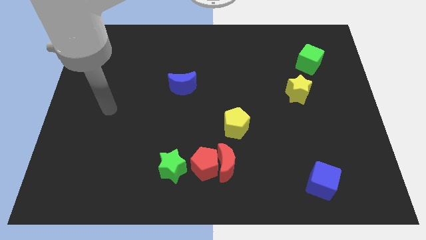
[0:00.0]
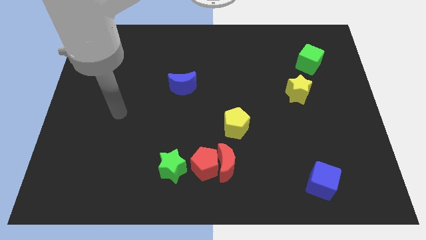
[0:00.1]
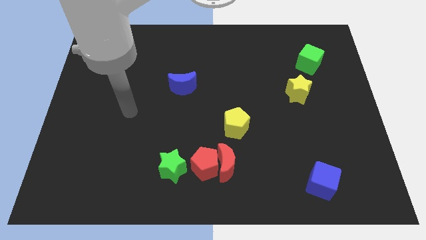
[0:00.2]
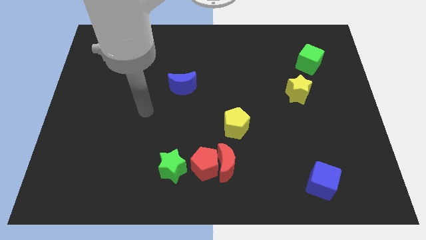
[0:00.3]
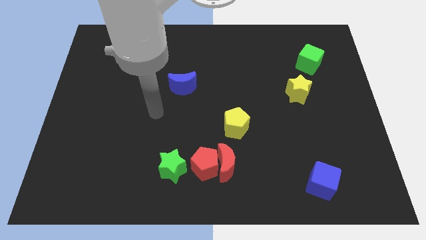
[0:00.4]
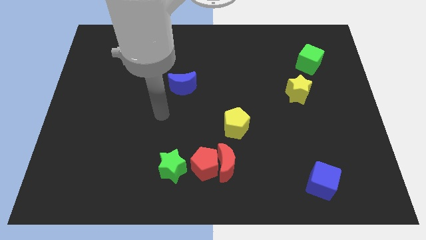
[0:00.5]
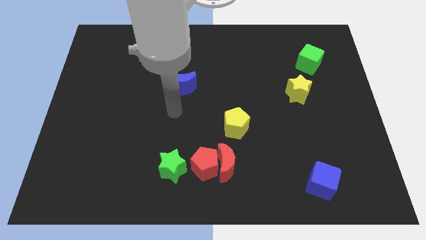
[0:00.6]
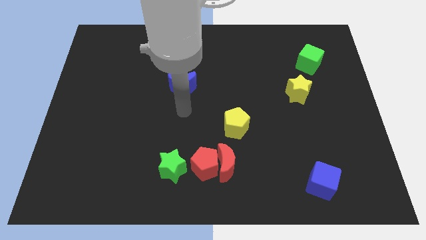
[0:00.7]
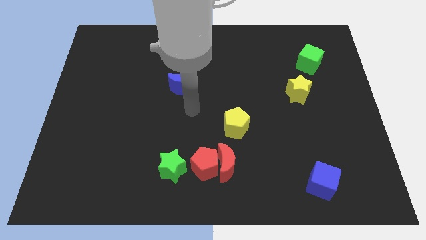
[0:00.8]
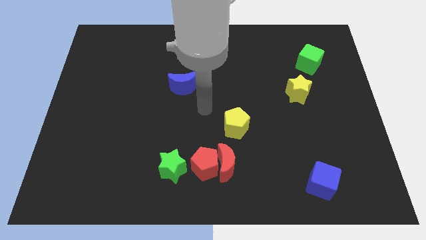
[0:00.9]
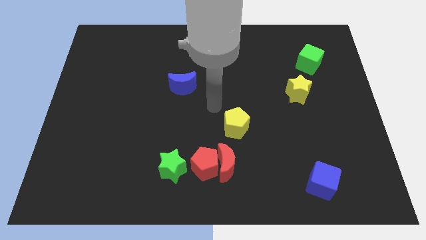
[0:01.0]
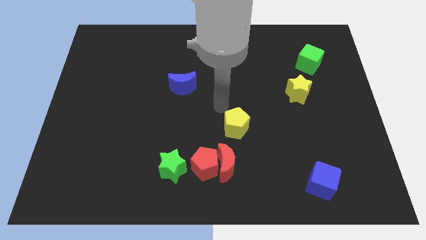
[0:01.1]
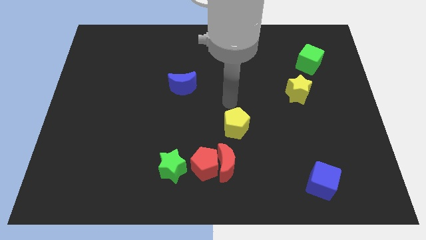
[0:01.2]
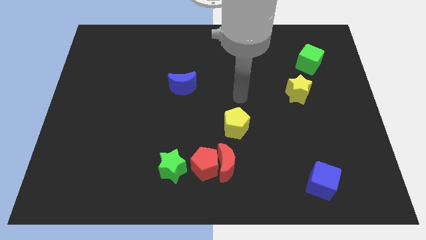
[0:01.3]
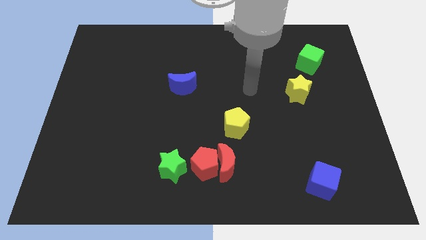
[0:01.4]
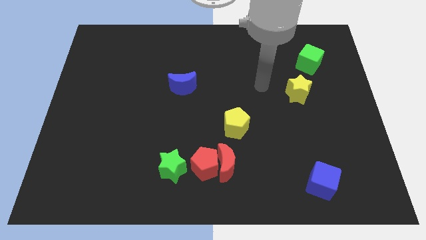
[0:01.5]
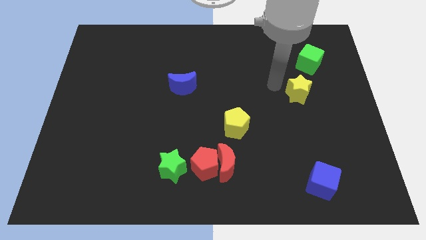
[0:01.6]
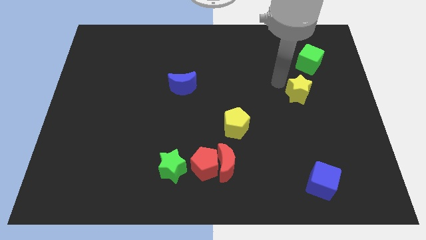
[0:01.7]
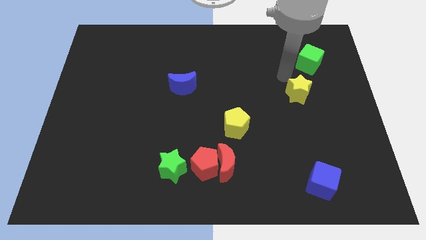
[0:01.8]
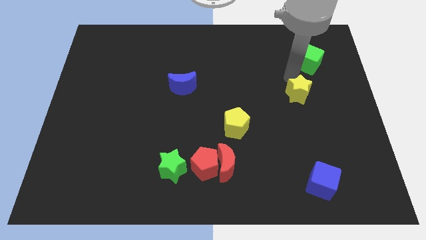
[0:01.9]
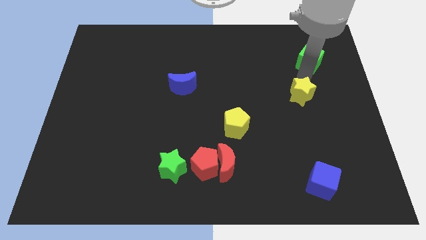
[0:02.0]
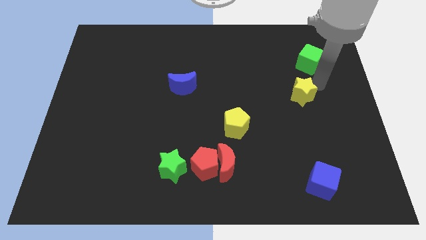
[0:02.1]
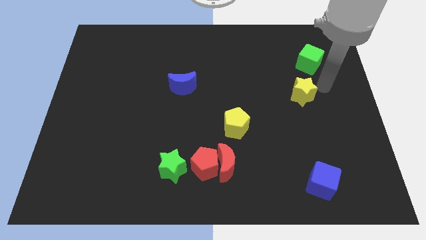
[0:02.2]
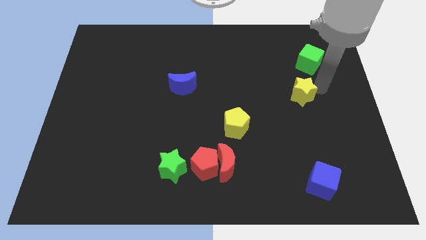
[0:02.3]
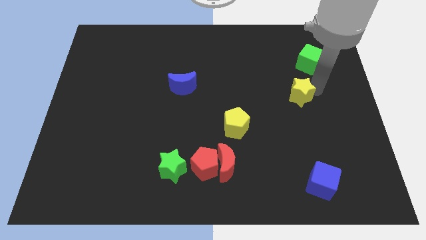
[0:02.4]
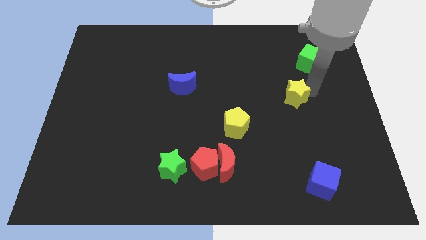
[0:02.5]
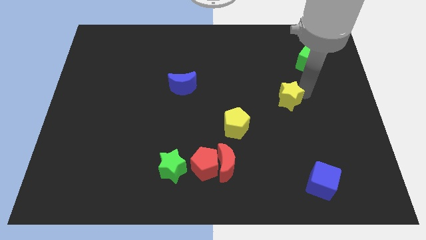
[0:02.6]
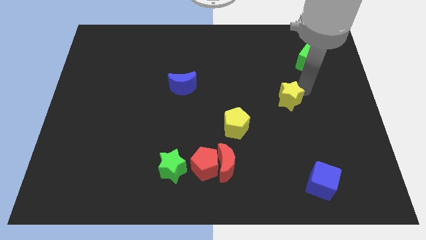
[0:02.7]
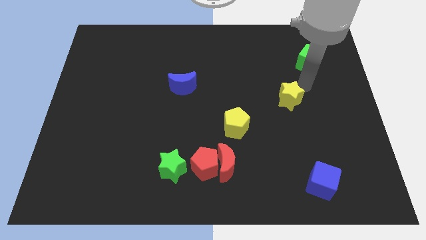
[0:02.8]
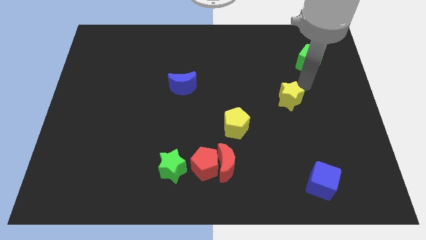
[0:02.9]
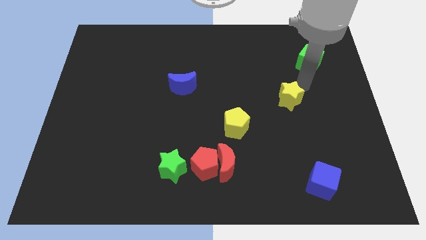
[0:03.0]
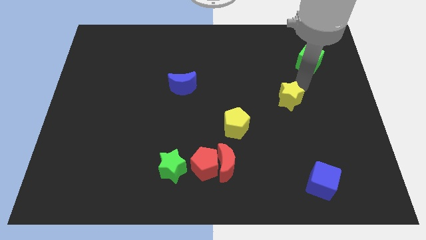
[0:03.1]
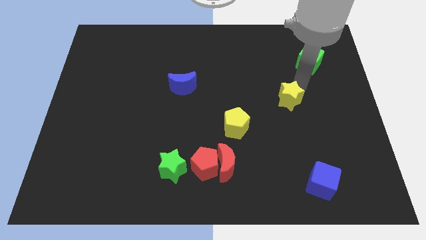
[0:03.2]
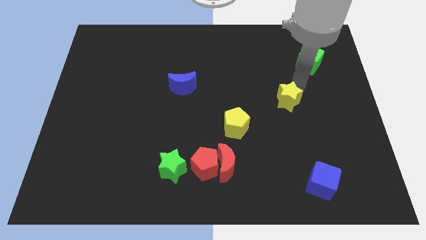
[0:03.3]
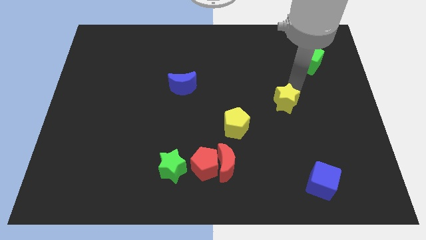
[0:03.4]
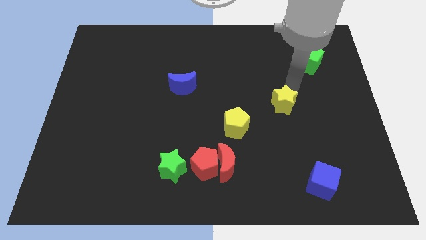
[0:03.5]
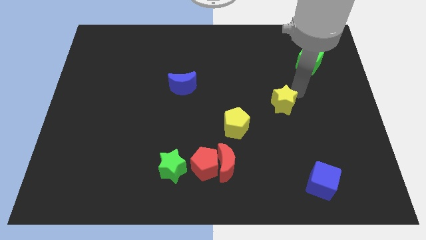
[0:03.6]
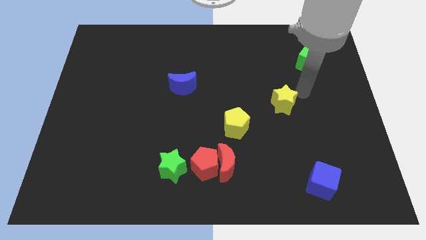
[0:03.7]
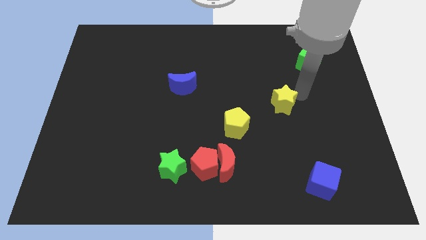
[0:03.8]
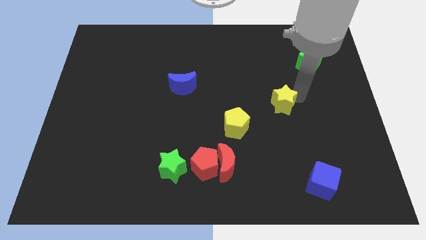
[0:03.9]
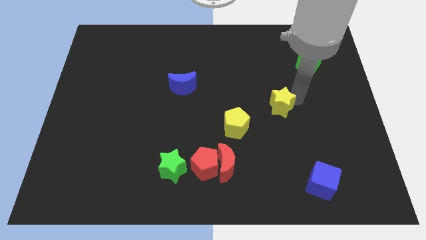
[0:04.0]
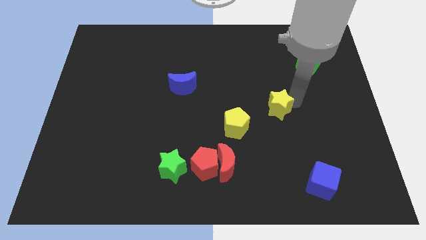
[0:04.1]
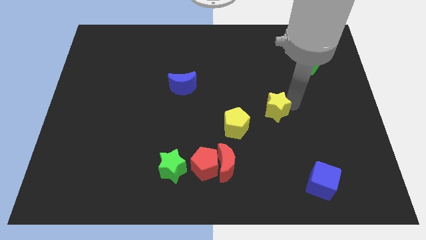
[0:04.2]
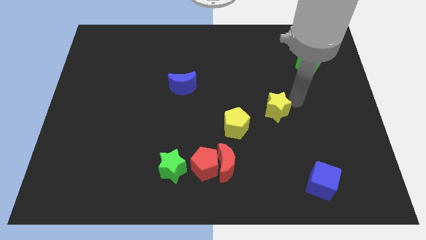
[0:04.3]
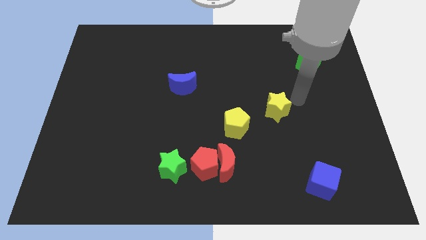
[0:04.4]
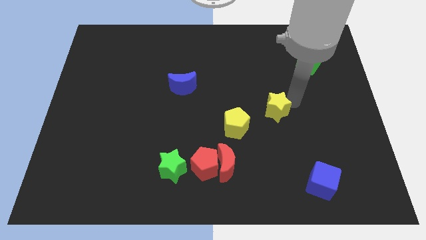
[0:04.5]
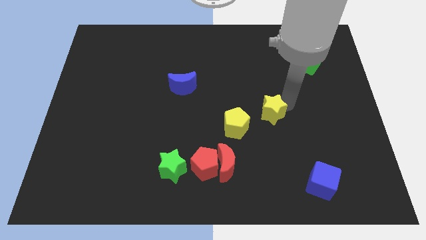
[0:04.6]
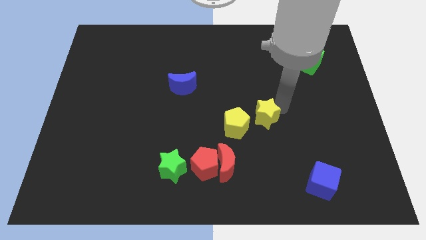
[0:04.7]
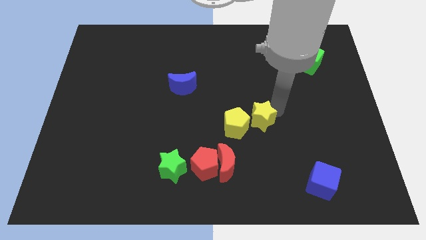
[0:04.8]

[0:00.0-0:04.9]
slide the yellow star next to the yellow pentagon

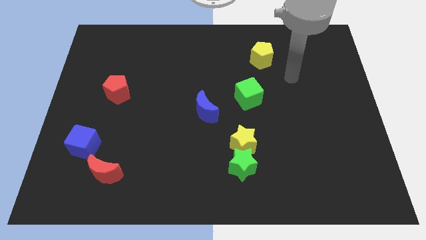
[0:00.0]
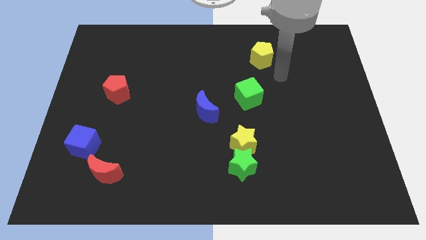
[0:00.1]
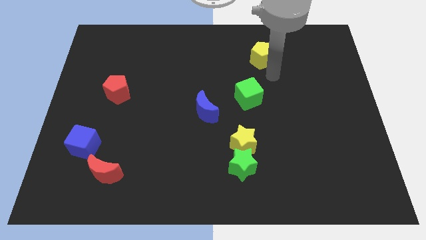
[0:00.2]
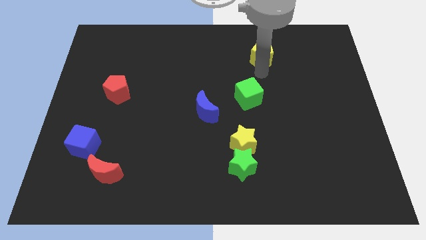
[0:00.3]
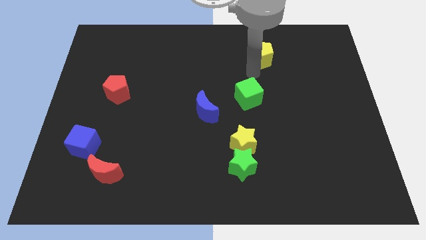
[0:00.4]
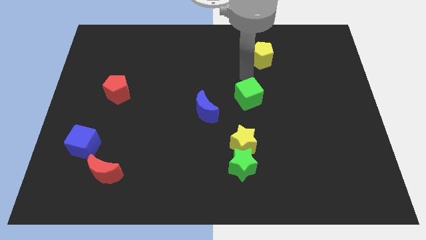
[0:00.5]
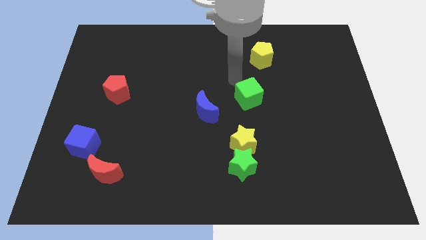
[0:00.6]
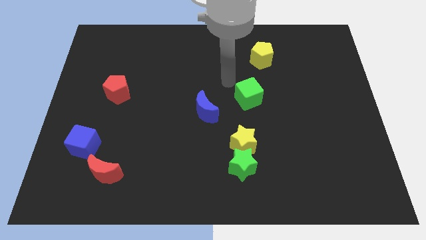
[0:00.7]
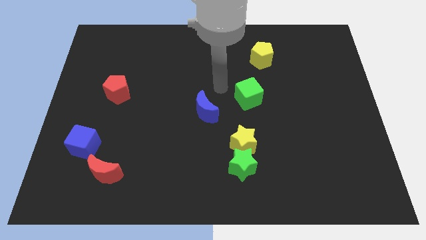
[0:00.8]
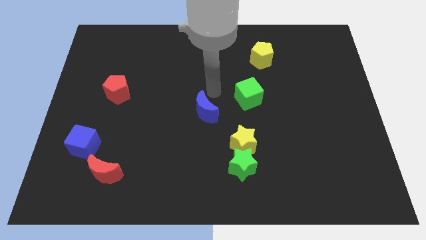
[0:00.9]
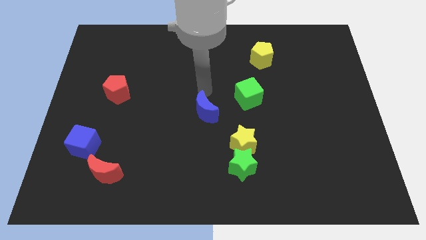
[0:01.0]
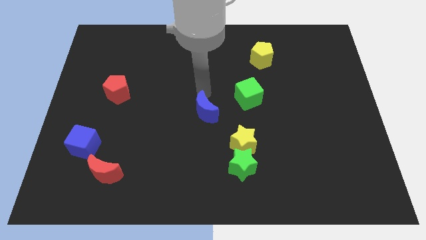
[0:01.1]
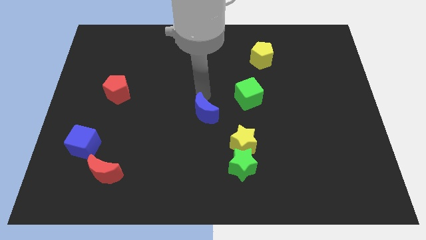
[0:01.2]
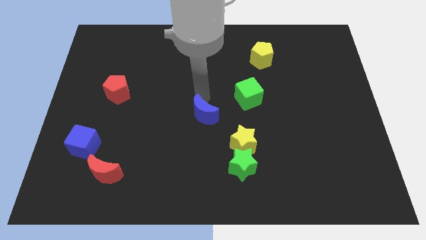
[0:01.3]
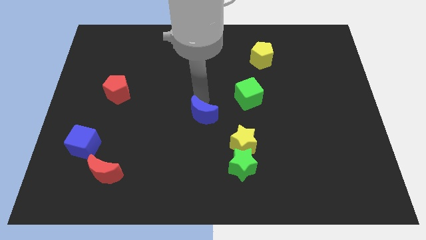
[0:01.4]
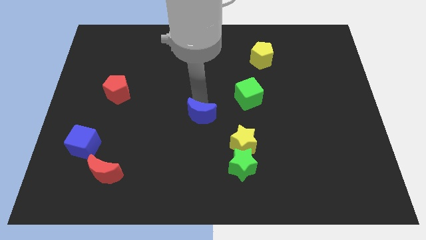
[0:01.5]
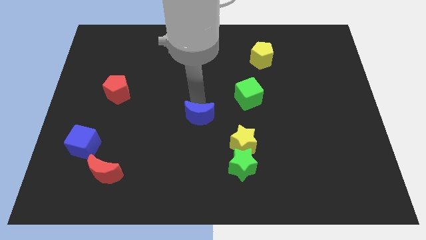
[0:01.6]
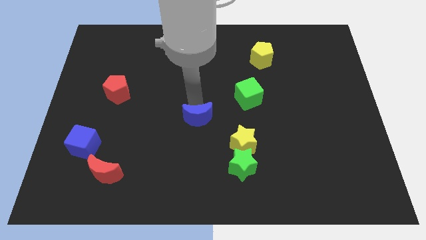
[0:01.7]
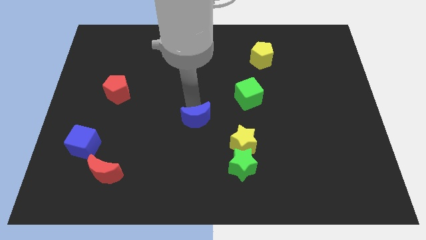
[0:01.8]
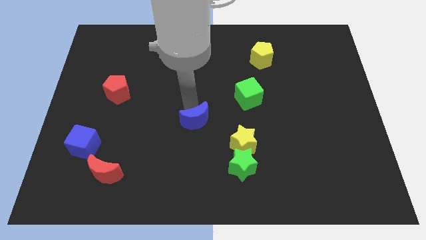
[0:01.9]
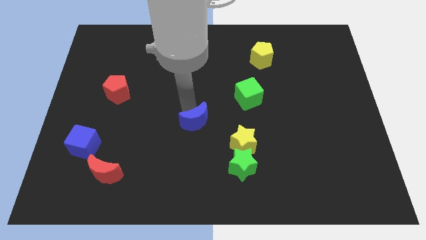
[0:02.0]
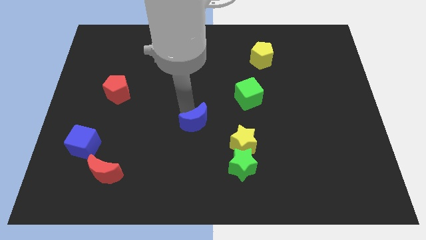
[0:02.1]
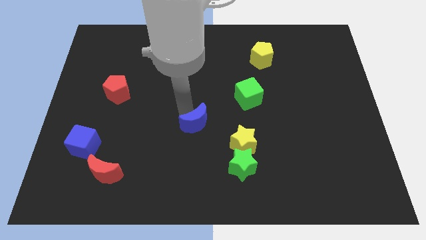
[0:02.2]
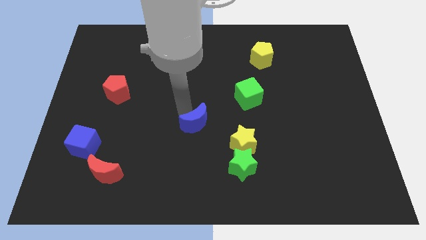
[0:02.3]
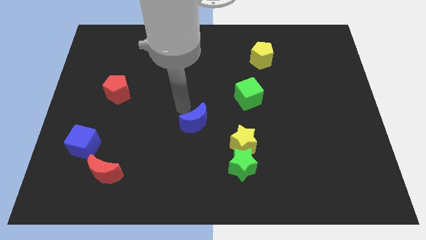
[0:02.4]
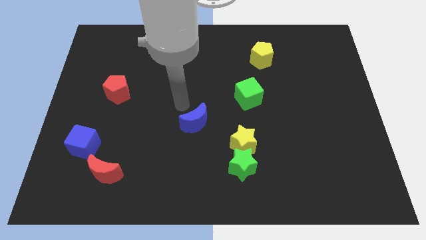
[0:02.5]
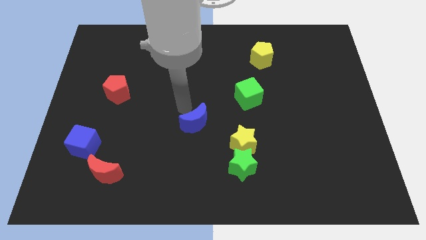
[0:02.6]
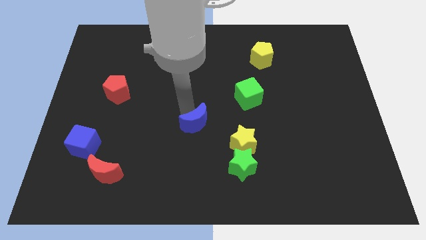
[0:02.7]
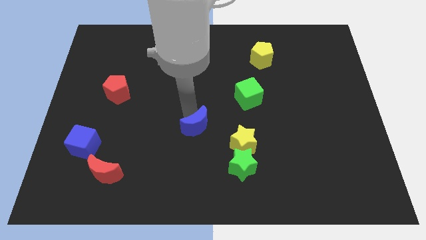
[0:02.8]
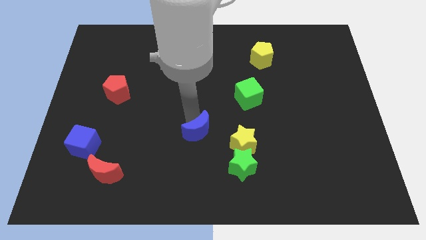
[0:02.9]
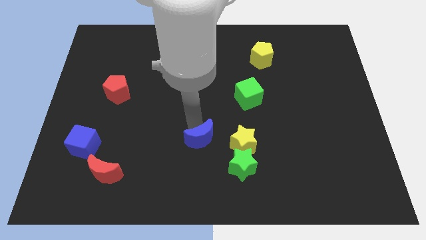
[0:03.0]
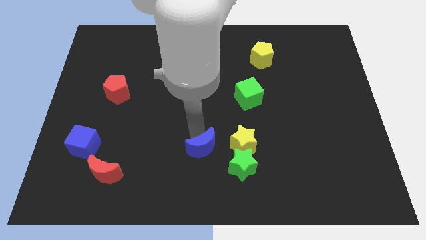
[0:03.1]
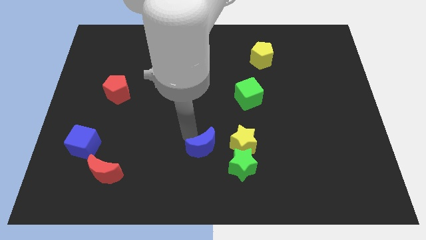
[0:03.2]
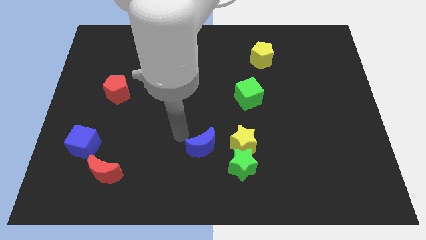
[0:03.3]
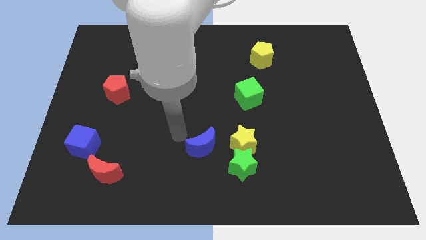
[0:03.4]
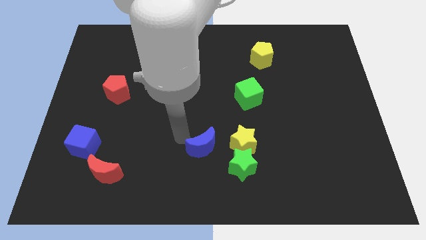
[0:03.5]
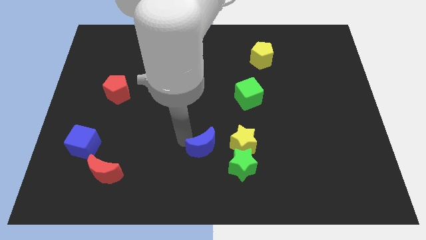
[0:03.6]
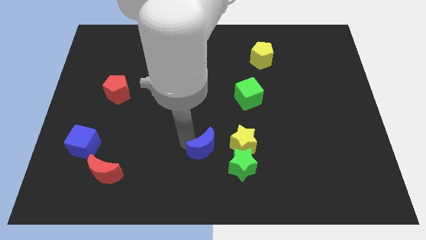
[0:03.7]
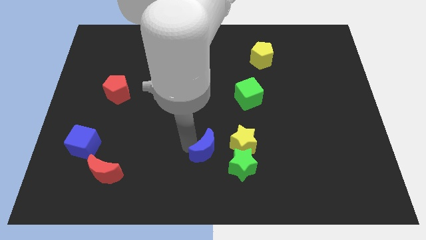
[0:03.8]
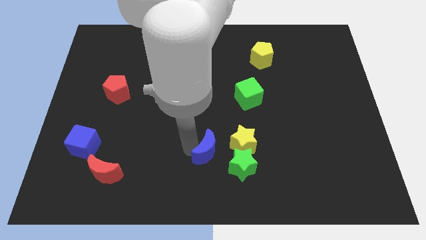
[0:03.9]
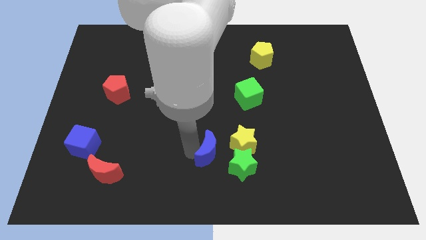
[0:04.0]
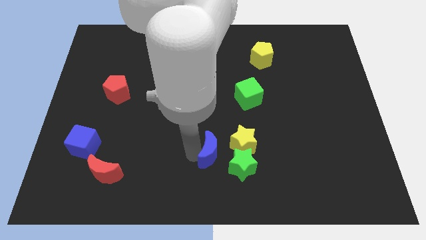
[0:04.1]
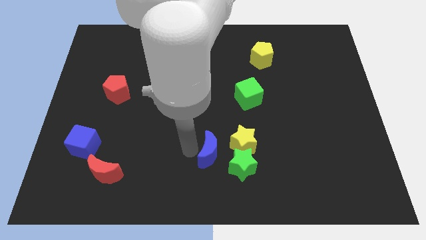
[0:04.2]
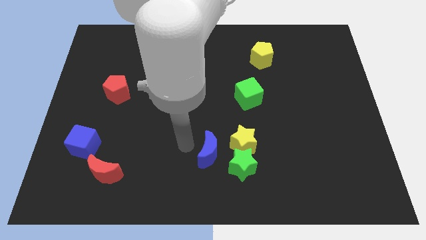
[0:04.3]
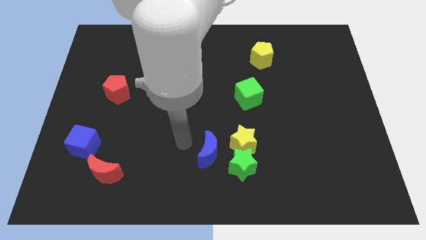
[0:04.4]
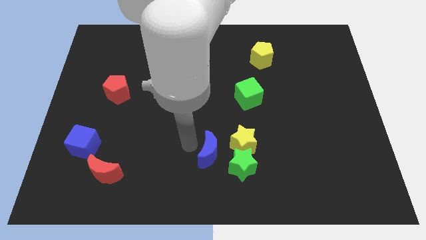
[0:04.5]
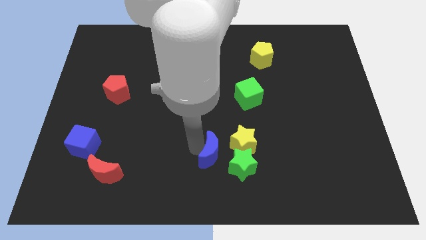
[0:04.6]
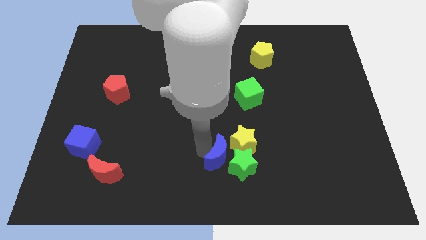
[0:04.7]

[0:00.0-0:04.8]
put the blue moon to the green star
